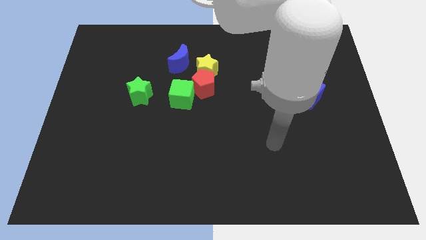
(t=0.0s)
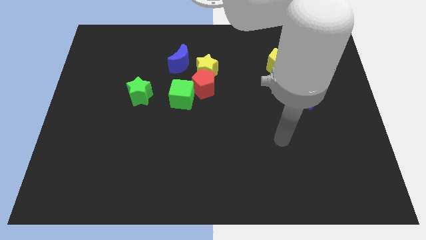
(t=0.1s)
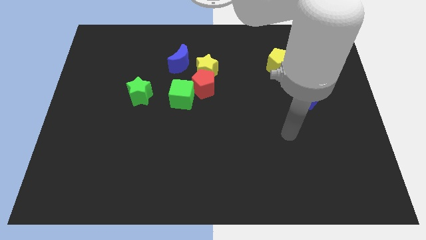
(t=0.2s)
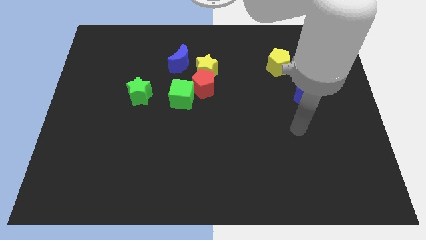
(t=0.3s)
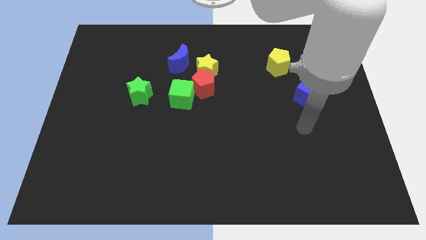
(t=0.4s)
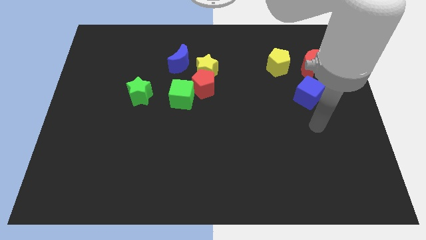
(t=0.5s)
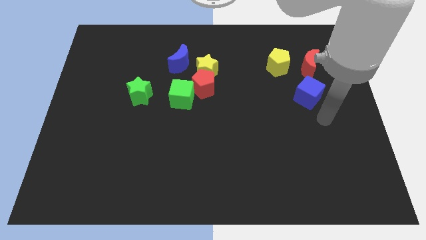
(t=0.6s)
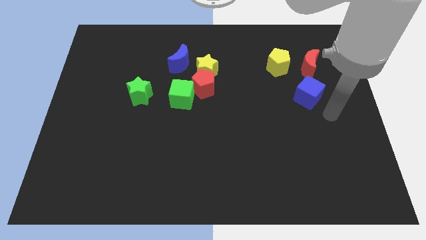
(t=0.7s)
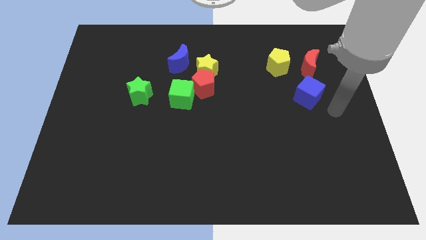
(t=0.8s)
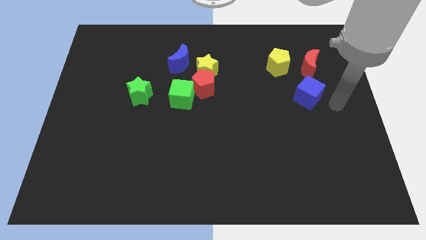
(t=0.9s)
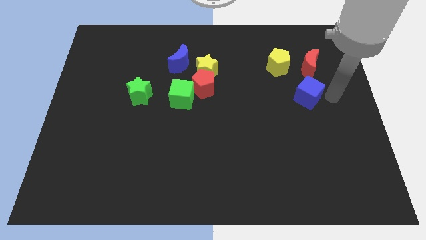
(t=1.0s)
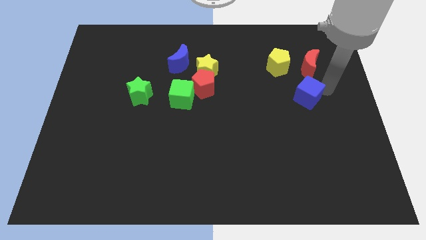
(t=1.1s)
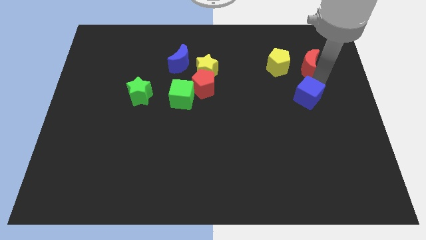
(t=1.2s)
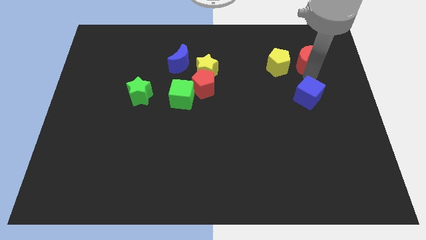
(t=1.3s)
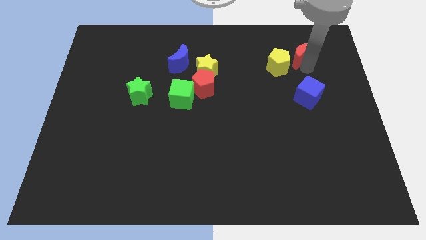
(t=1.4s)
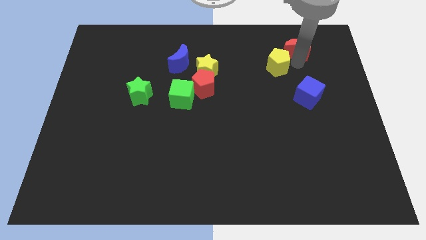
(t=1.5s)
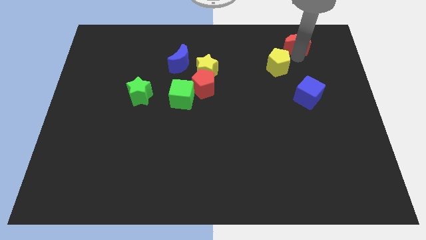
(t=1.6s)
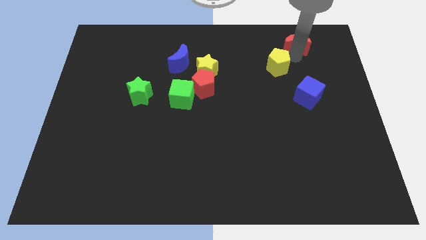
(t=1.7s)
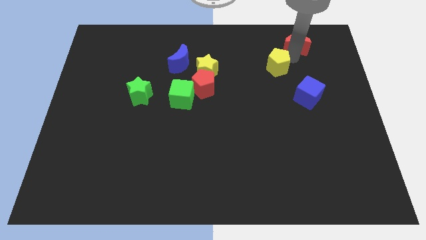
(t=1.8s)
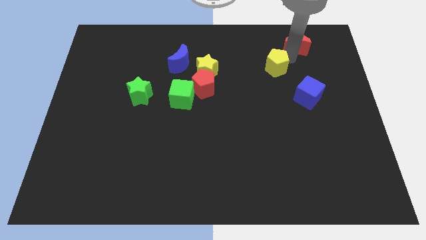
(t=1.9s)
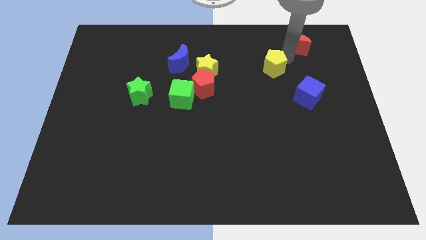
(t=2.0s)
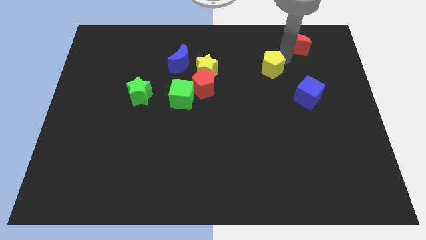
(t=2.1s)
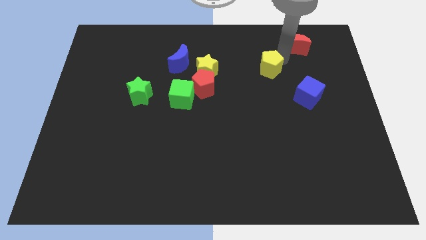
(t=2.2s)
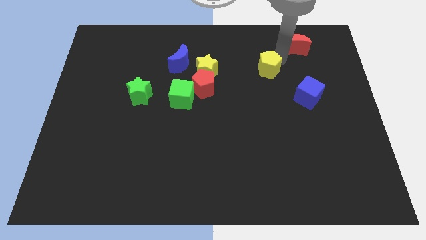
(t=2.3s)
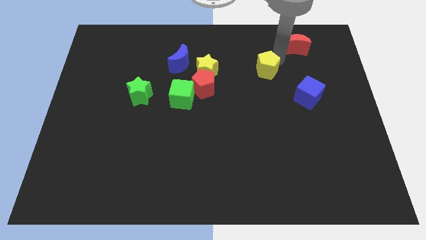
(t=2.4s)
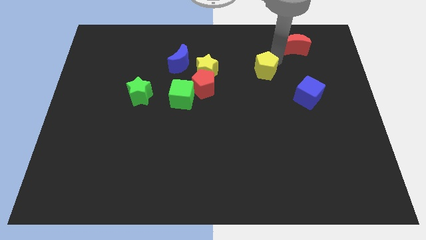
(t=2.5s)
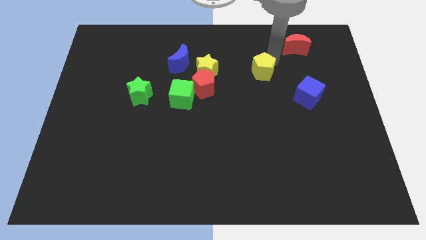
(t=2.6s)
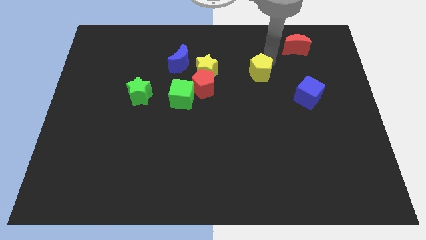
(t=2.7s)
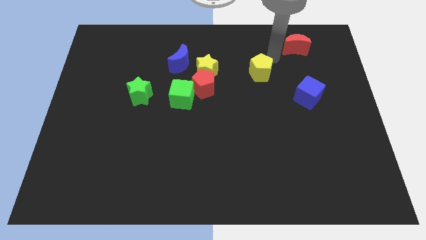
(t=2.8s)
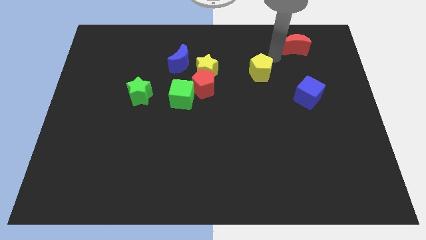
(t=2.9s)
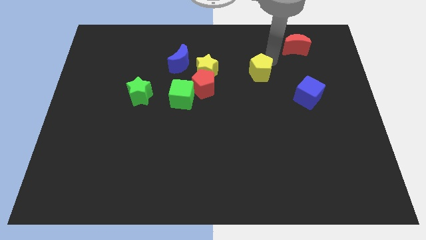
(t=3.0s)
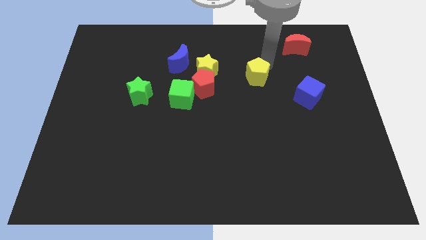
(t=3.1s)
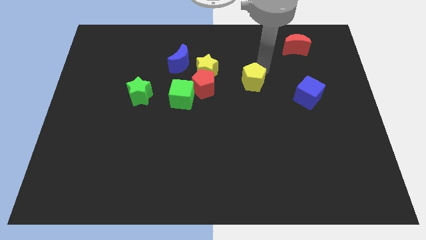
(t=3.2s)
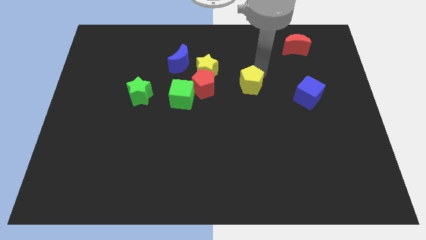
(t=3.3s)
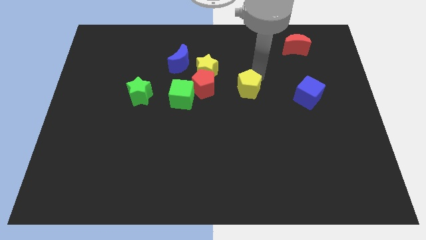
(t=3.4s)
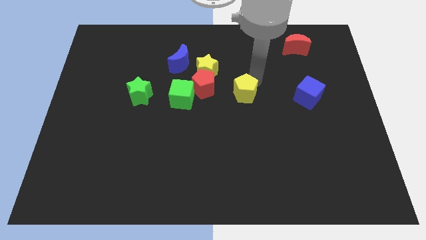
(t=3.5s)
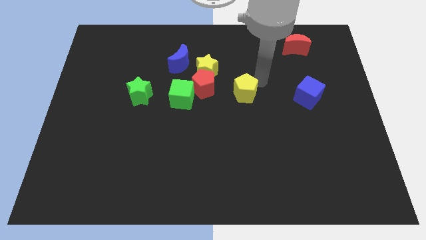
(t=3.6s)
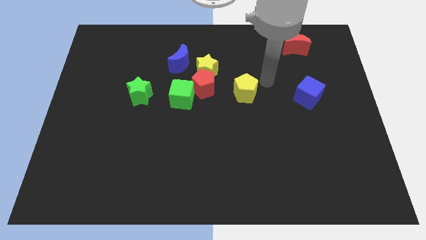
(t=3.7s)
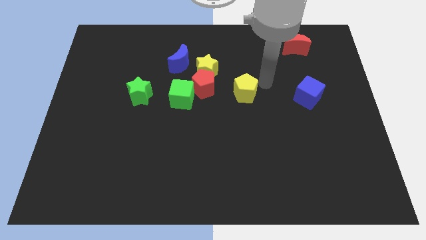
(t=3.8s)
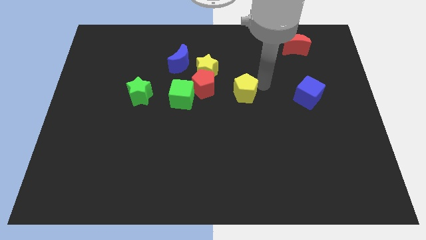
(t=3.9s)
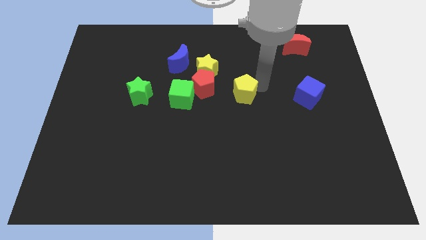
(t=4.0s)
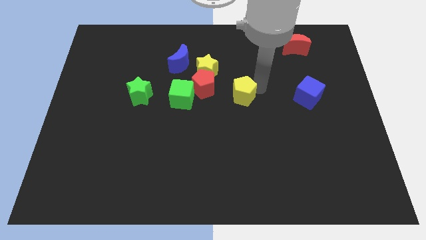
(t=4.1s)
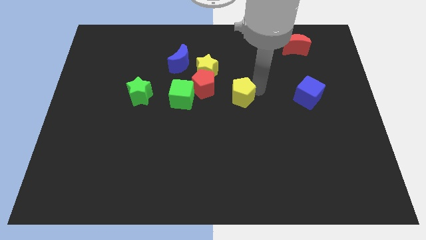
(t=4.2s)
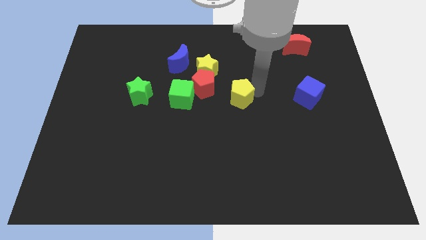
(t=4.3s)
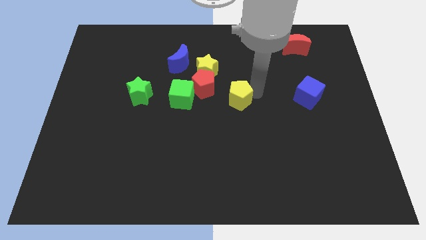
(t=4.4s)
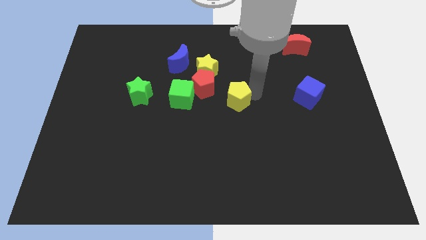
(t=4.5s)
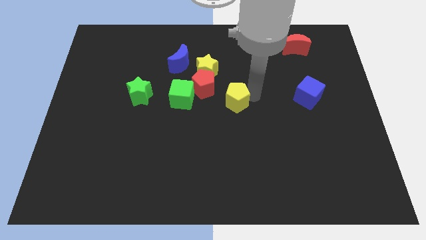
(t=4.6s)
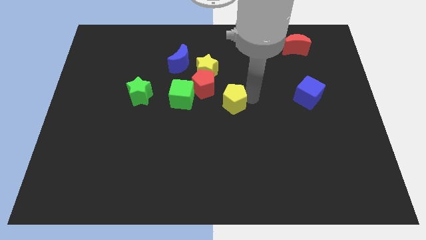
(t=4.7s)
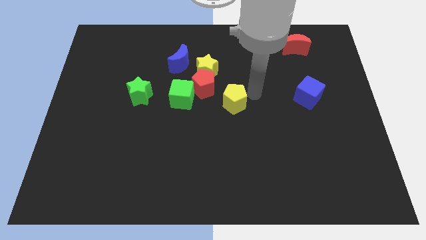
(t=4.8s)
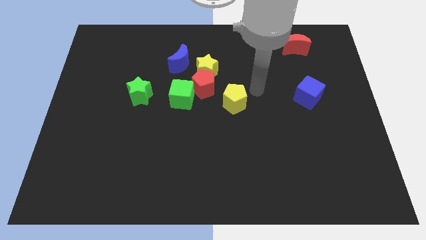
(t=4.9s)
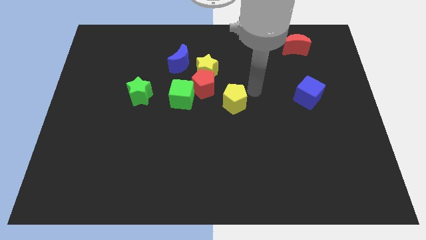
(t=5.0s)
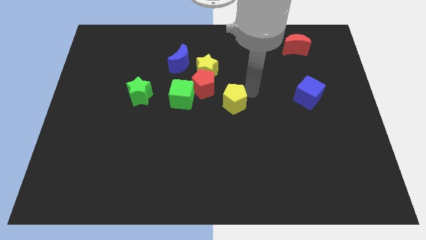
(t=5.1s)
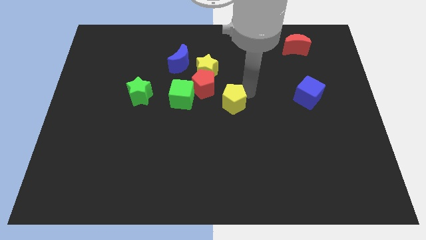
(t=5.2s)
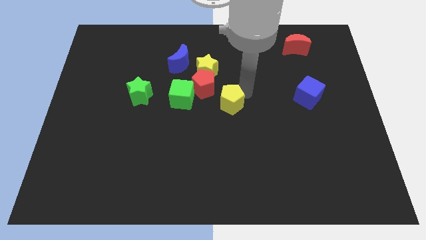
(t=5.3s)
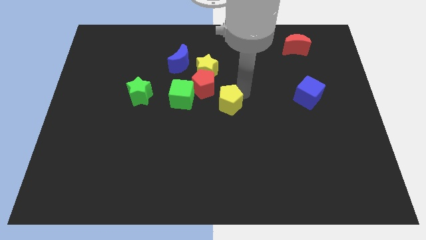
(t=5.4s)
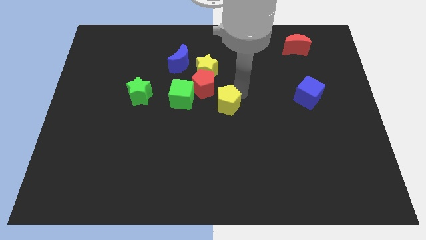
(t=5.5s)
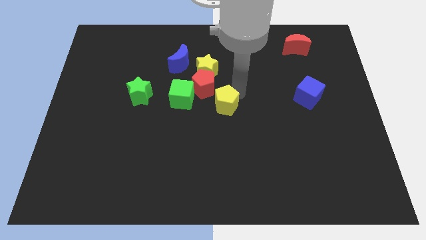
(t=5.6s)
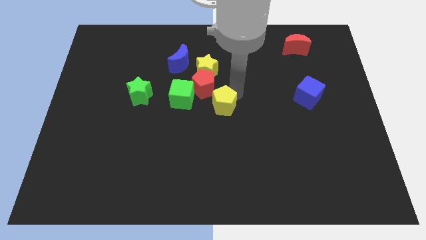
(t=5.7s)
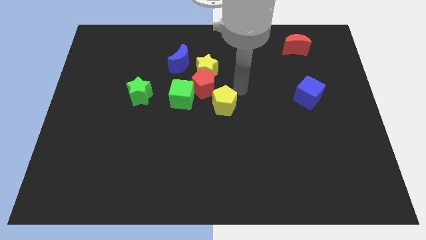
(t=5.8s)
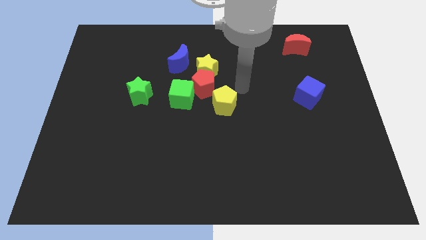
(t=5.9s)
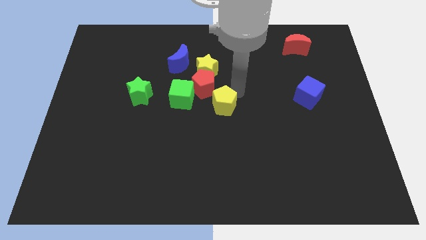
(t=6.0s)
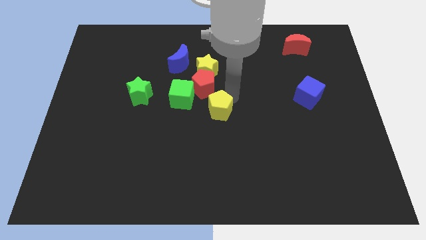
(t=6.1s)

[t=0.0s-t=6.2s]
slide the yellow pentagon downwards and left diagonally

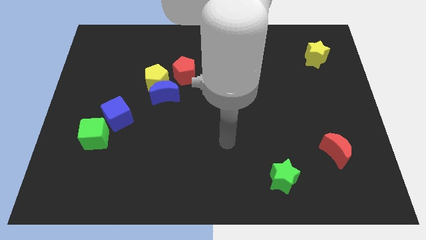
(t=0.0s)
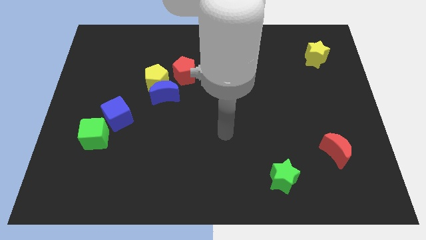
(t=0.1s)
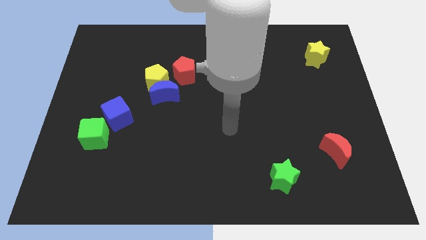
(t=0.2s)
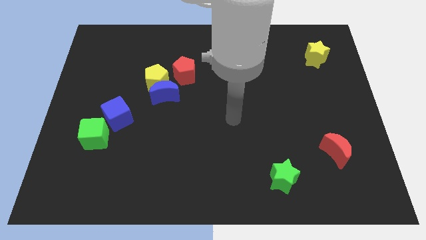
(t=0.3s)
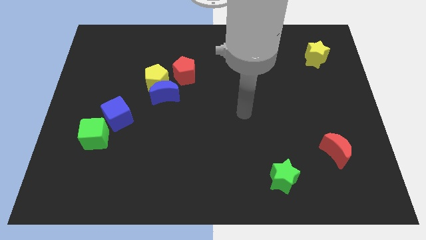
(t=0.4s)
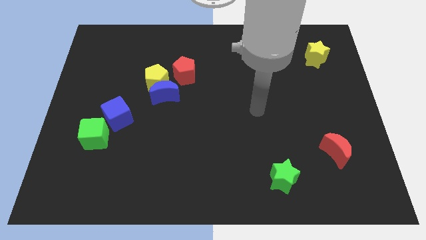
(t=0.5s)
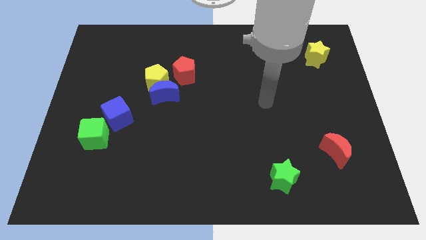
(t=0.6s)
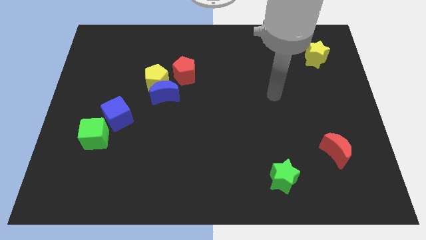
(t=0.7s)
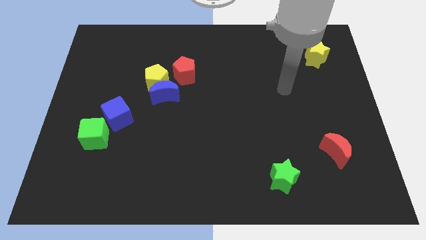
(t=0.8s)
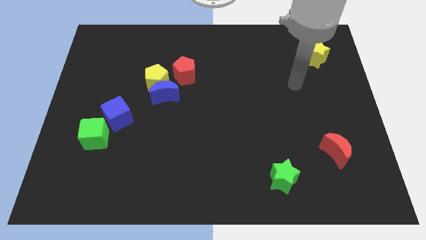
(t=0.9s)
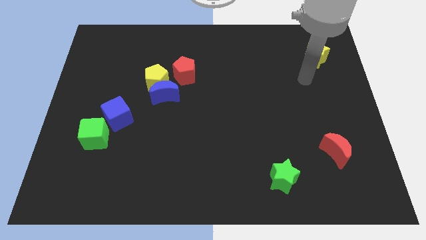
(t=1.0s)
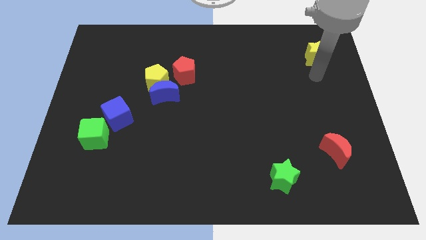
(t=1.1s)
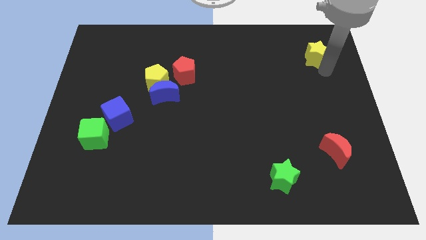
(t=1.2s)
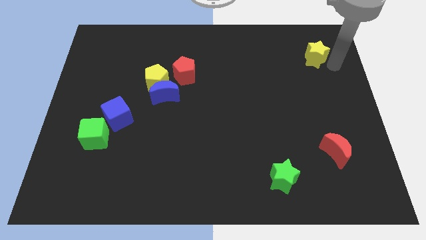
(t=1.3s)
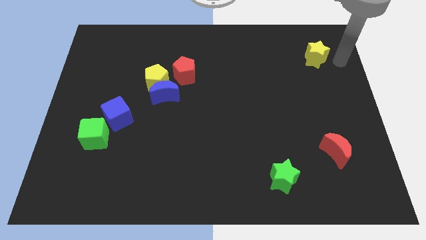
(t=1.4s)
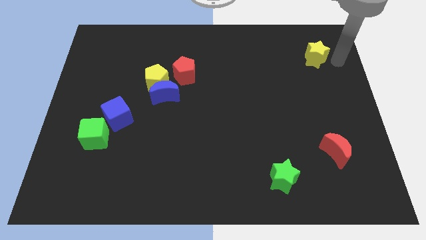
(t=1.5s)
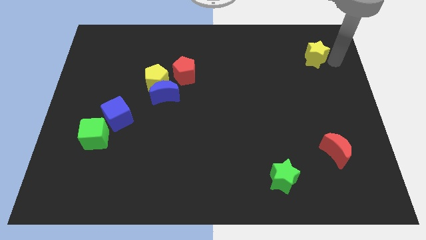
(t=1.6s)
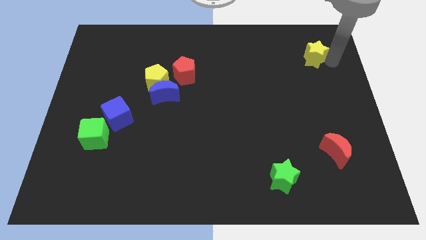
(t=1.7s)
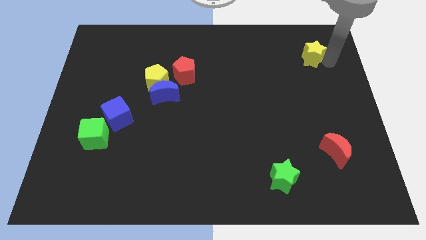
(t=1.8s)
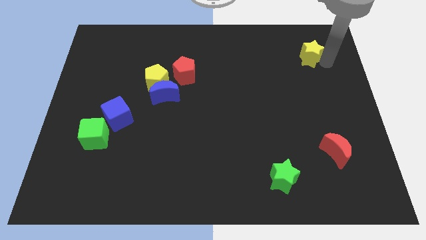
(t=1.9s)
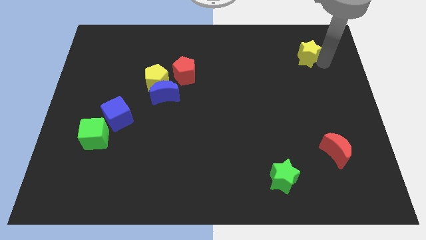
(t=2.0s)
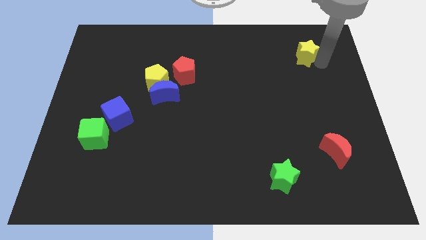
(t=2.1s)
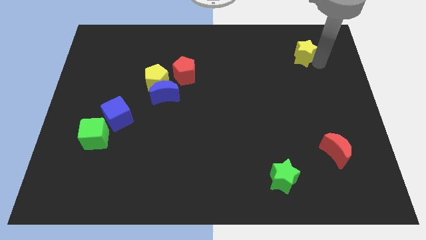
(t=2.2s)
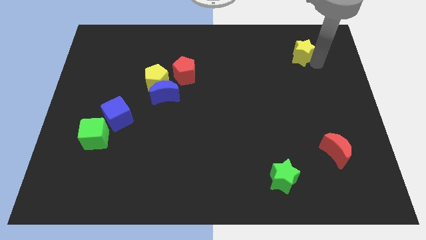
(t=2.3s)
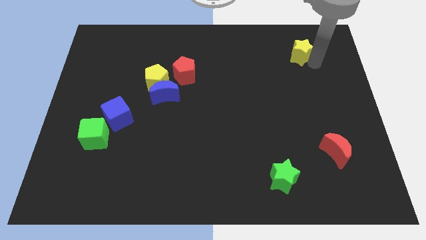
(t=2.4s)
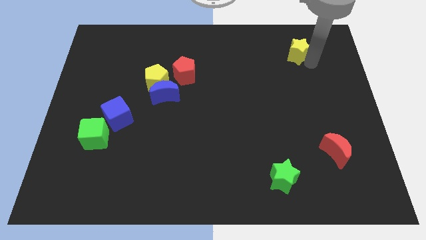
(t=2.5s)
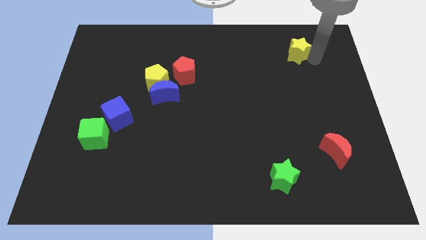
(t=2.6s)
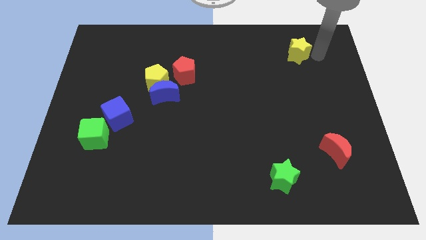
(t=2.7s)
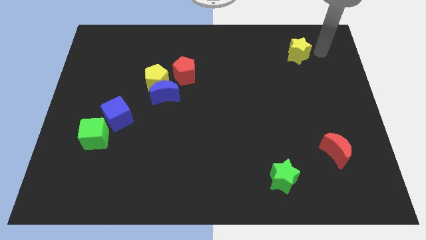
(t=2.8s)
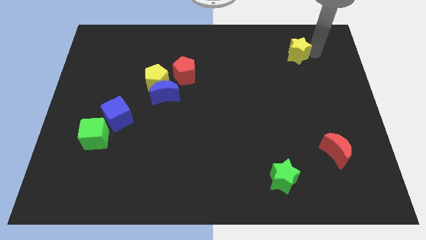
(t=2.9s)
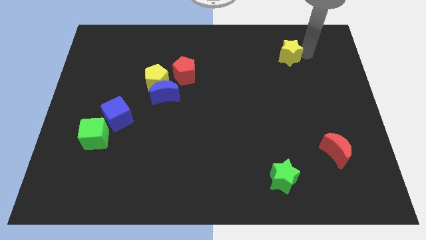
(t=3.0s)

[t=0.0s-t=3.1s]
slightly push the yellow star left
